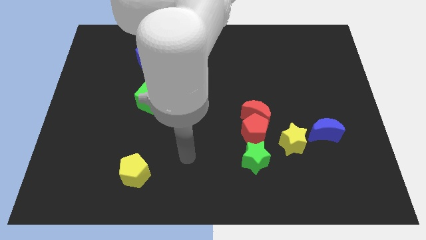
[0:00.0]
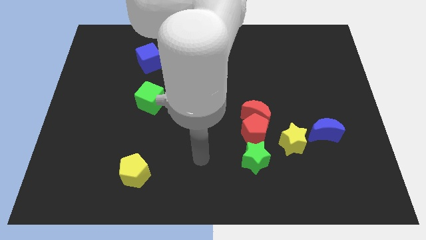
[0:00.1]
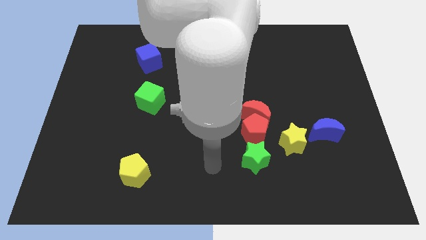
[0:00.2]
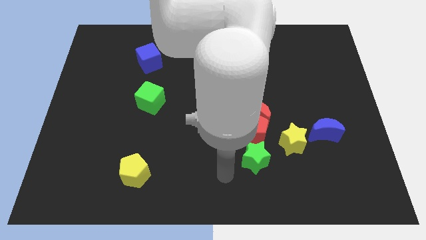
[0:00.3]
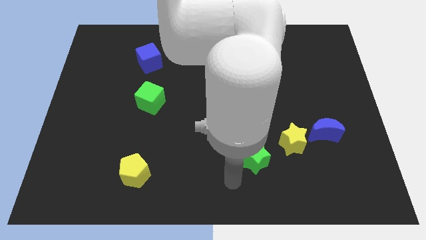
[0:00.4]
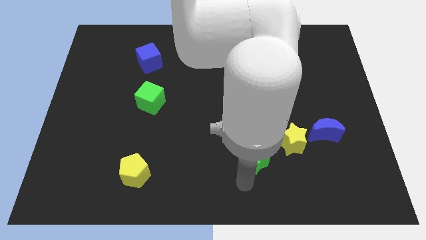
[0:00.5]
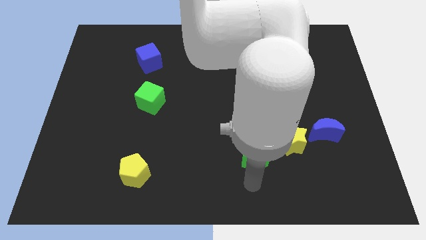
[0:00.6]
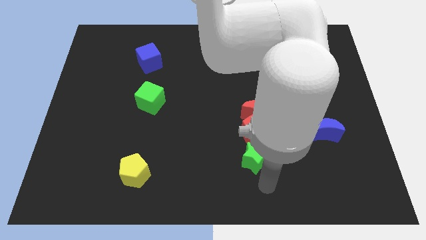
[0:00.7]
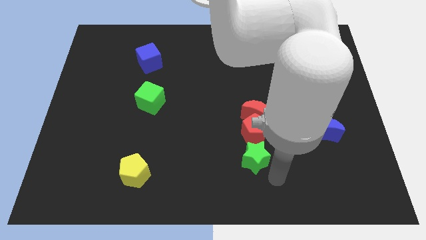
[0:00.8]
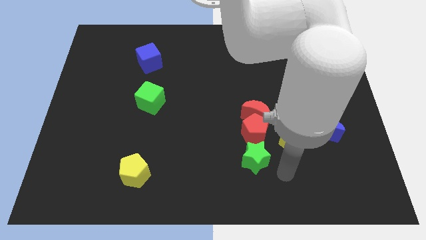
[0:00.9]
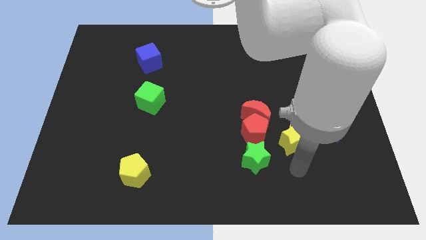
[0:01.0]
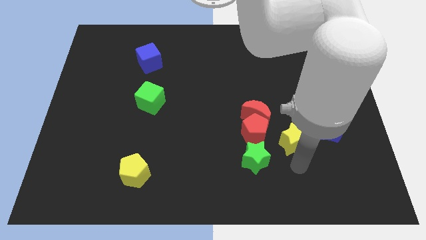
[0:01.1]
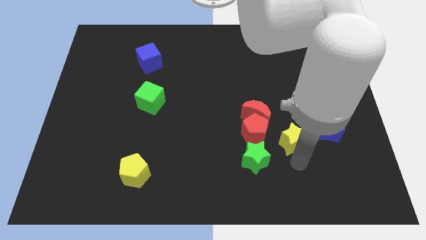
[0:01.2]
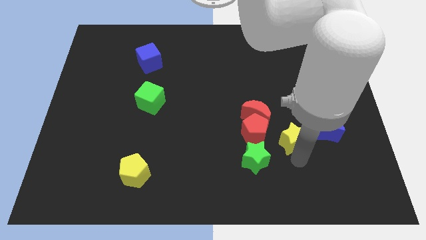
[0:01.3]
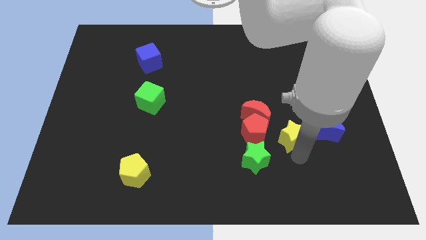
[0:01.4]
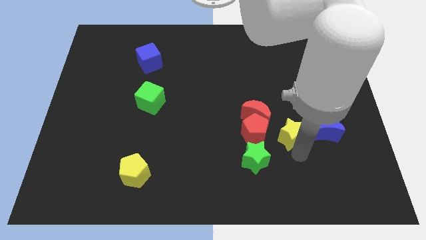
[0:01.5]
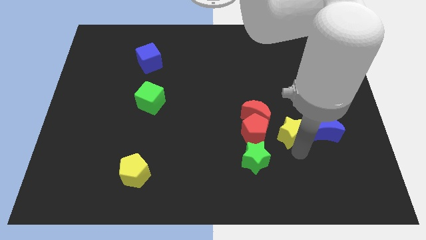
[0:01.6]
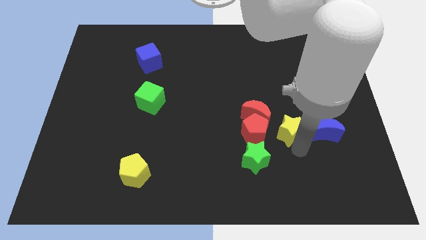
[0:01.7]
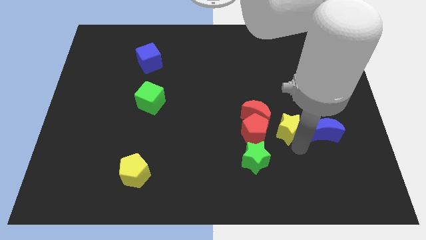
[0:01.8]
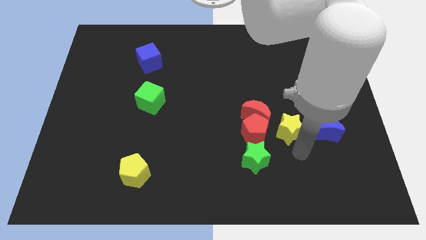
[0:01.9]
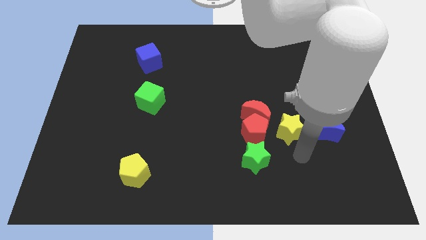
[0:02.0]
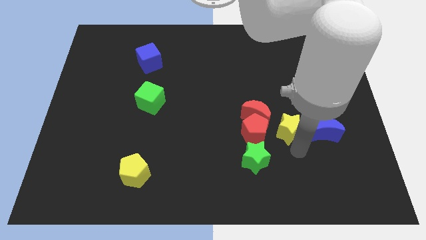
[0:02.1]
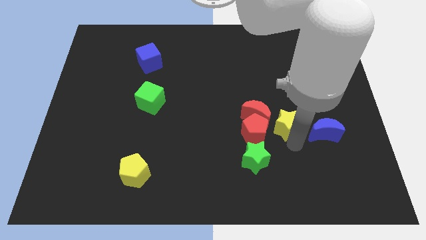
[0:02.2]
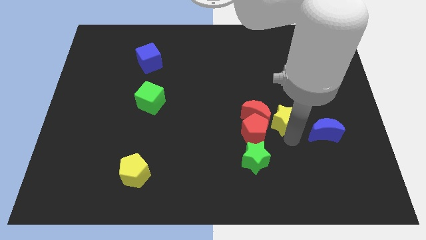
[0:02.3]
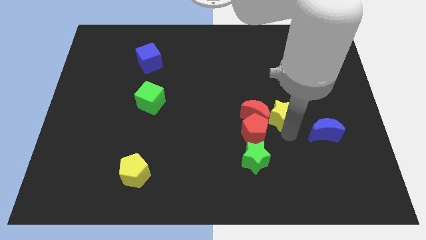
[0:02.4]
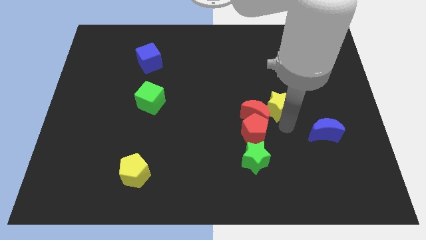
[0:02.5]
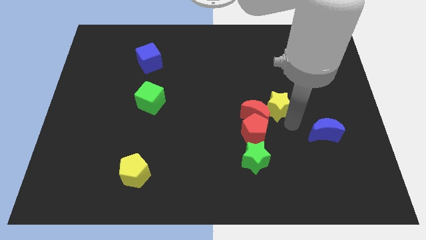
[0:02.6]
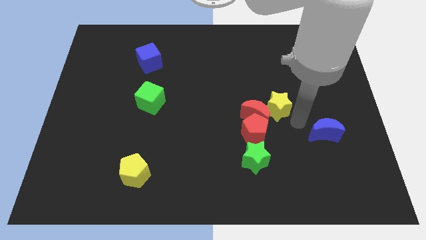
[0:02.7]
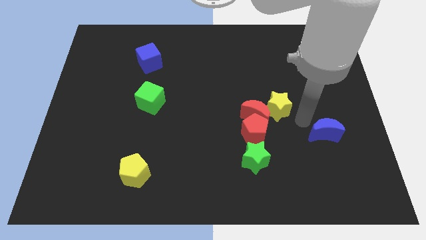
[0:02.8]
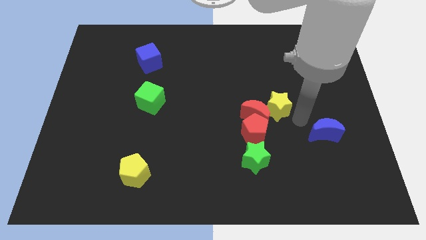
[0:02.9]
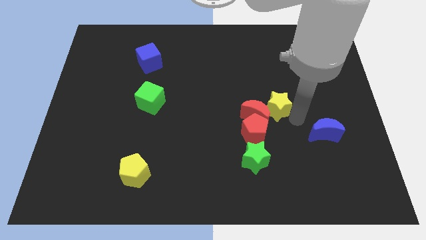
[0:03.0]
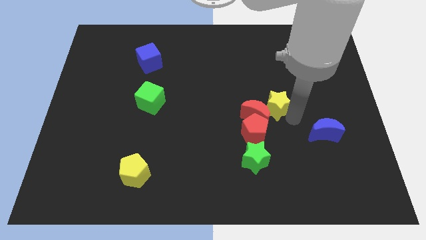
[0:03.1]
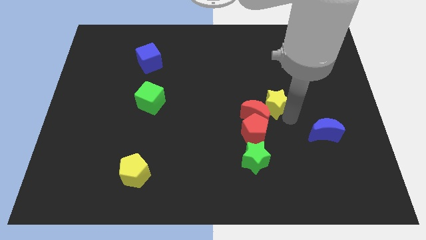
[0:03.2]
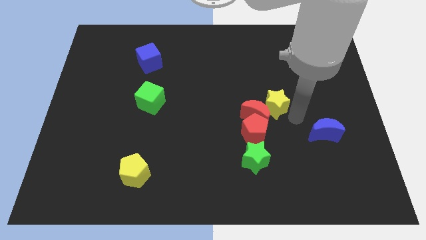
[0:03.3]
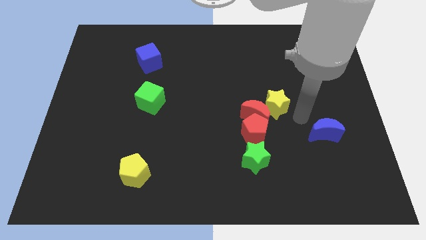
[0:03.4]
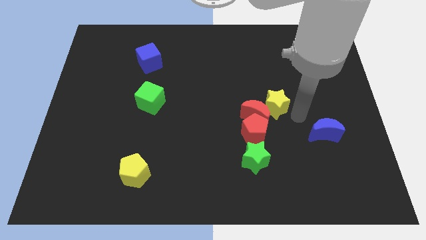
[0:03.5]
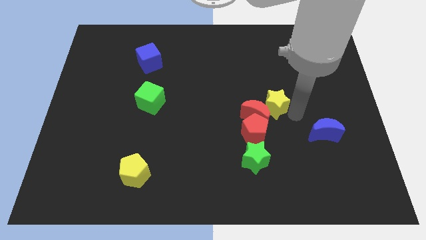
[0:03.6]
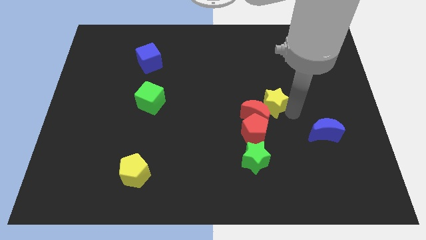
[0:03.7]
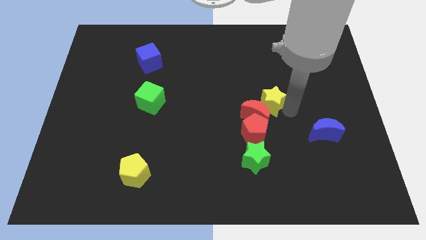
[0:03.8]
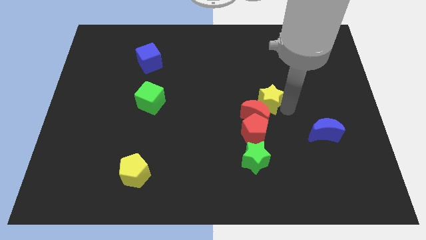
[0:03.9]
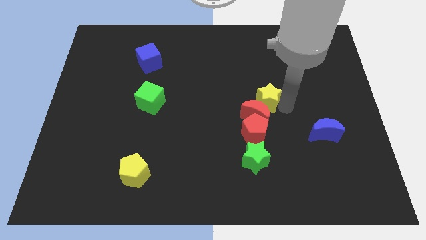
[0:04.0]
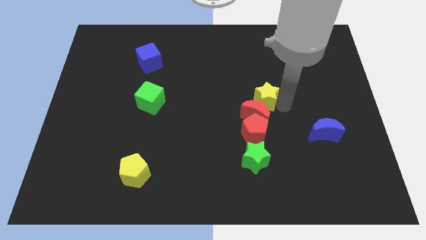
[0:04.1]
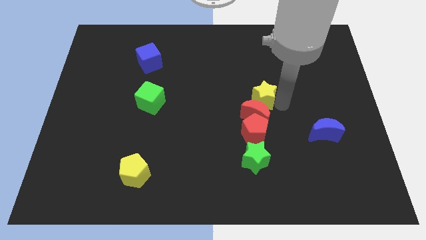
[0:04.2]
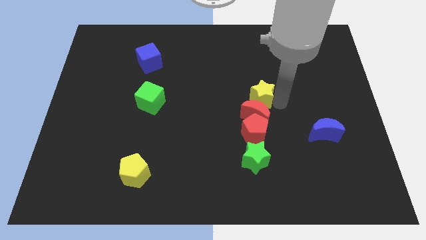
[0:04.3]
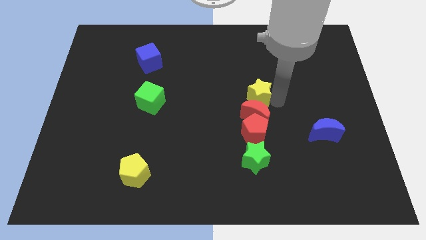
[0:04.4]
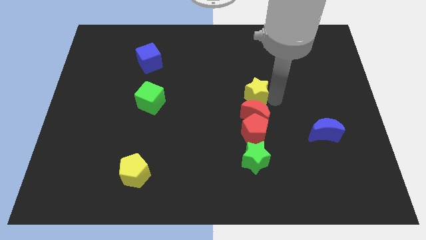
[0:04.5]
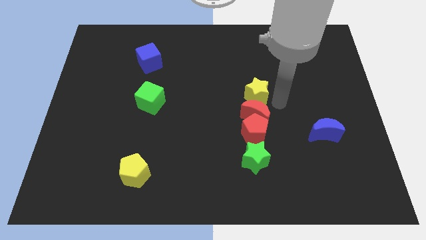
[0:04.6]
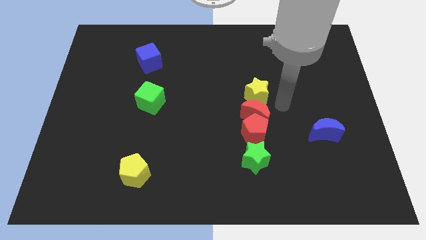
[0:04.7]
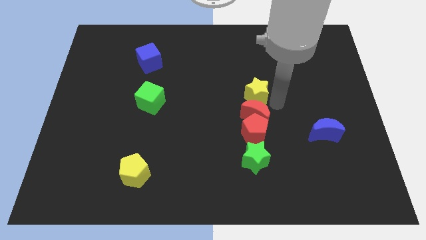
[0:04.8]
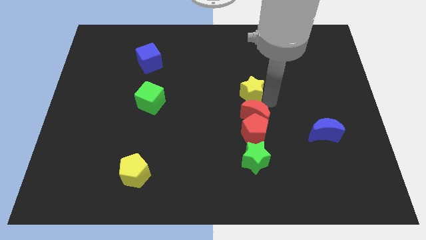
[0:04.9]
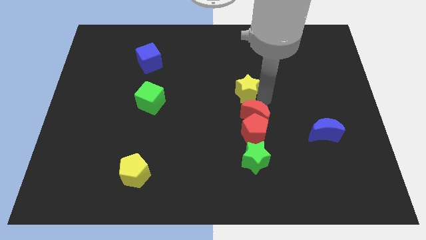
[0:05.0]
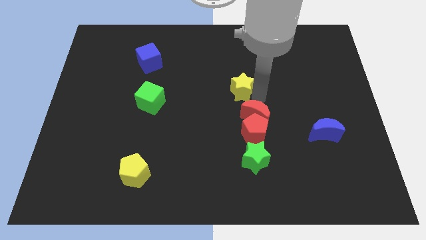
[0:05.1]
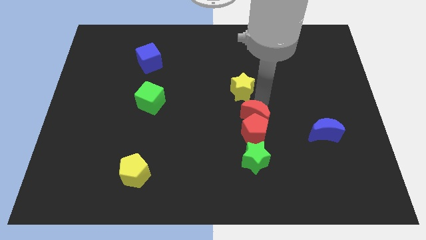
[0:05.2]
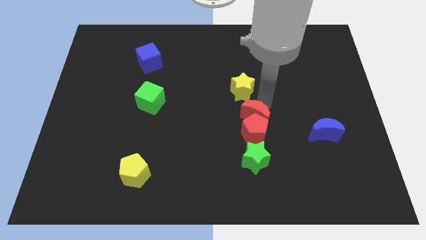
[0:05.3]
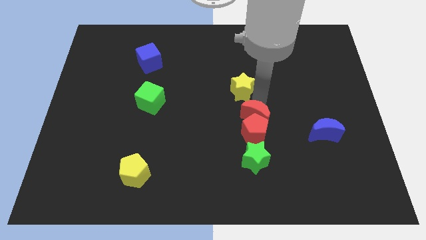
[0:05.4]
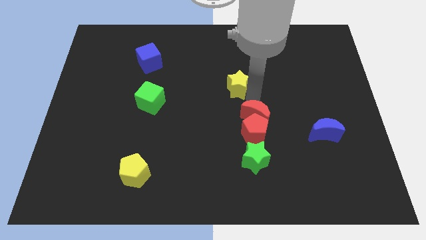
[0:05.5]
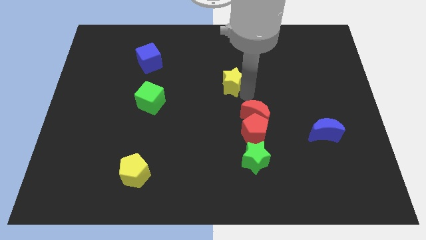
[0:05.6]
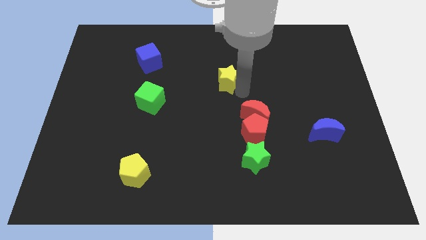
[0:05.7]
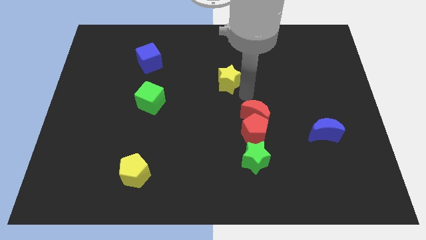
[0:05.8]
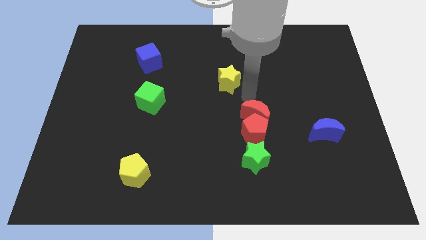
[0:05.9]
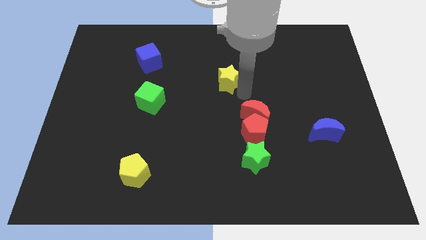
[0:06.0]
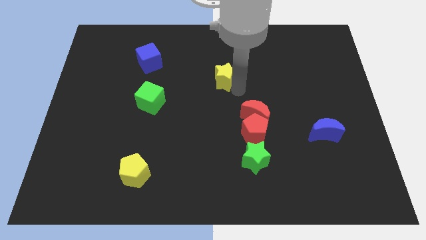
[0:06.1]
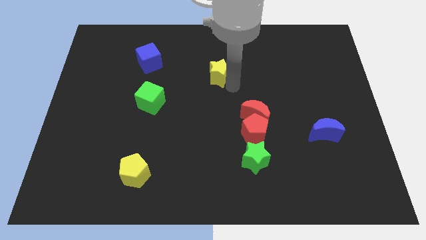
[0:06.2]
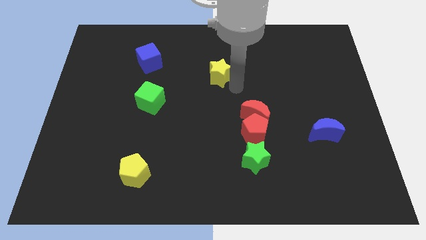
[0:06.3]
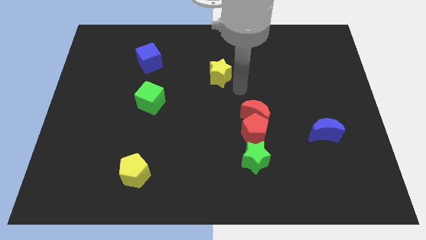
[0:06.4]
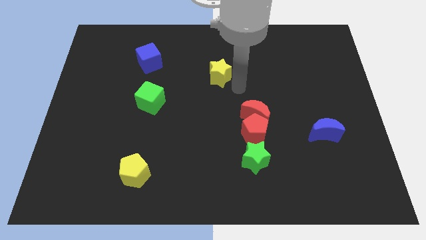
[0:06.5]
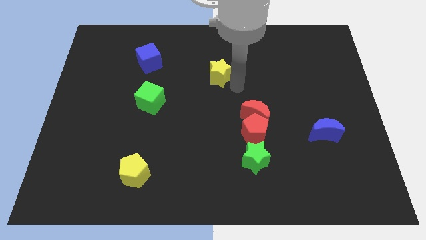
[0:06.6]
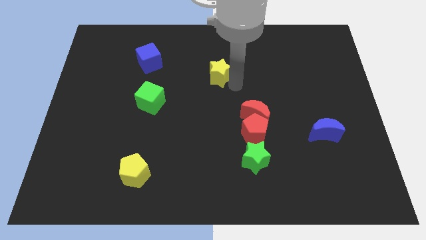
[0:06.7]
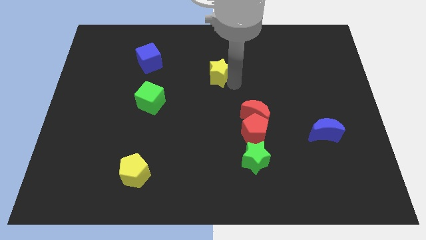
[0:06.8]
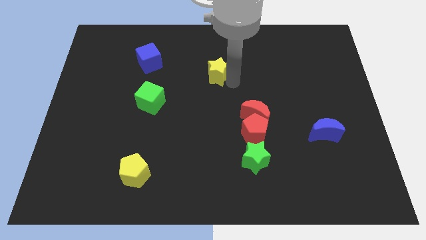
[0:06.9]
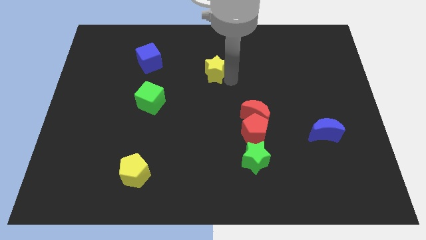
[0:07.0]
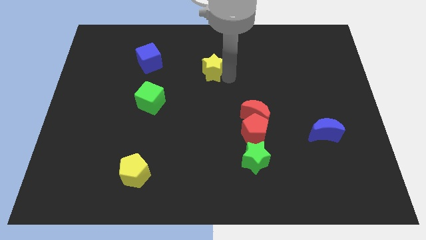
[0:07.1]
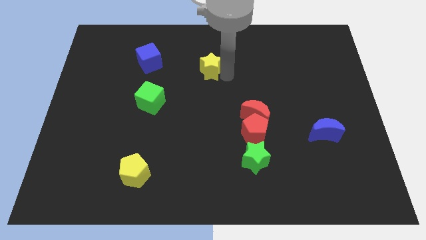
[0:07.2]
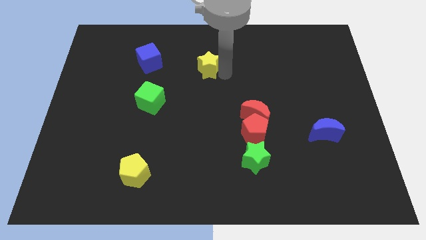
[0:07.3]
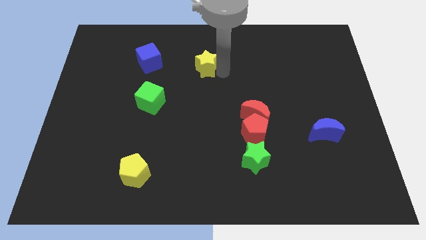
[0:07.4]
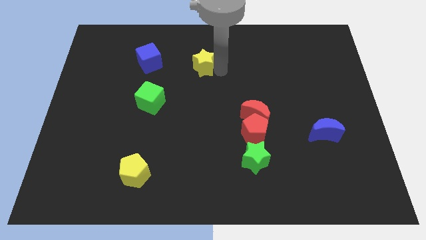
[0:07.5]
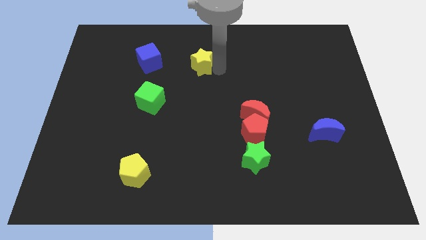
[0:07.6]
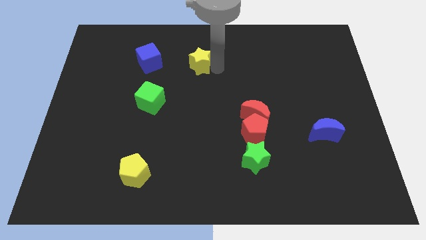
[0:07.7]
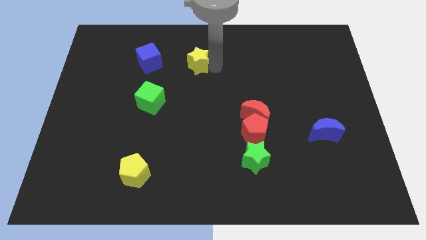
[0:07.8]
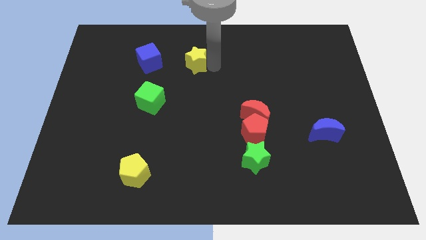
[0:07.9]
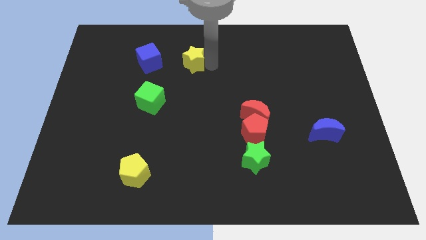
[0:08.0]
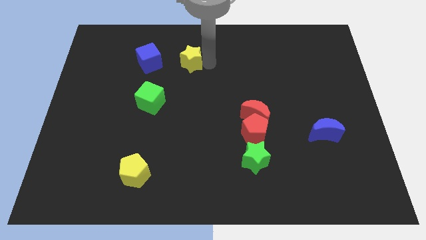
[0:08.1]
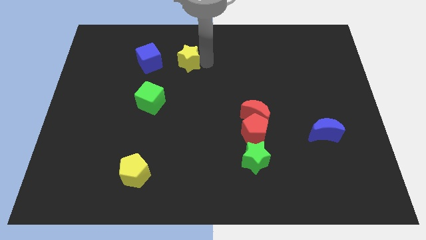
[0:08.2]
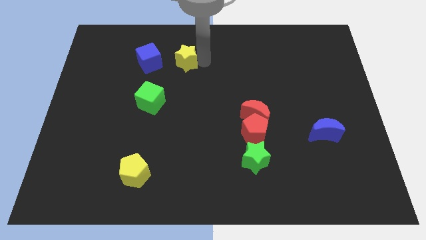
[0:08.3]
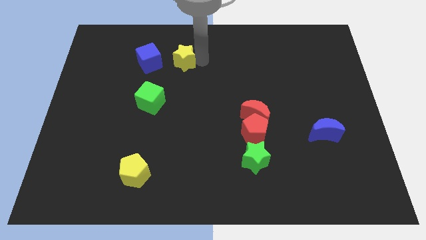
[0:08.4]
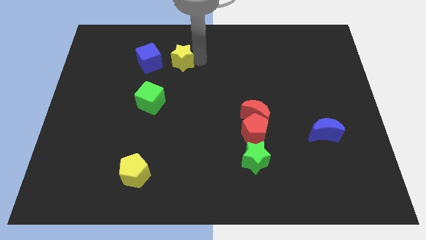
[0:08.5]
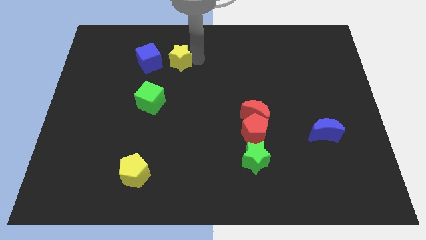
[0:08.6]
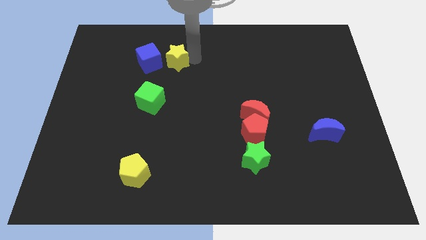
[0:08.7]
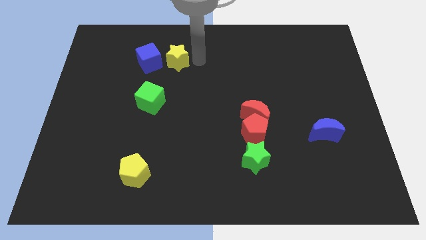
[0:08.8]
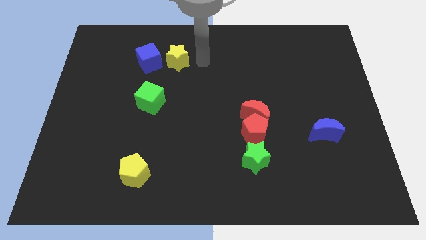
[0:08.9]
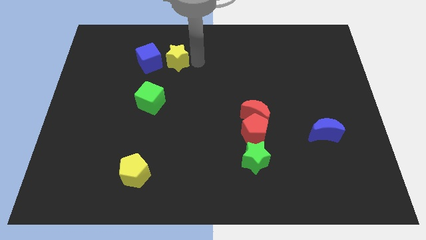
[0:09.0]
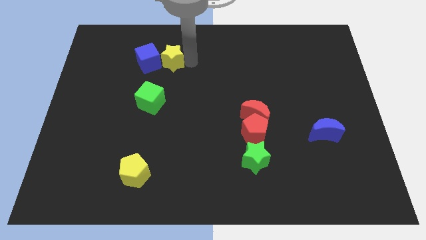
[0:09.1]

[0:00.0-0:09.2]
slide the yellow star next to the blue cube
